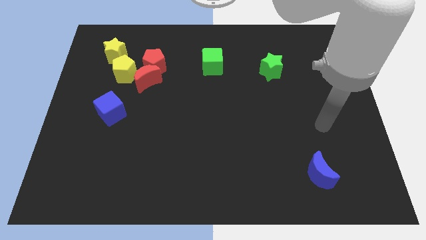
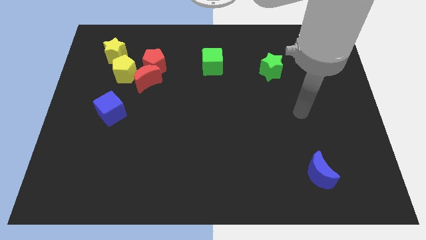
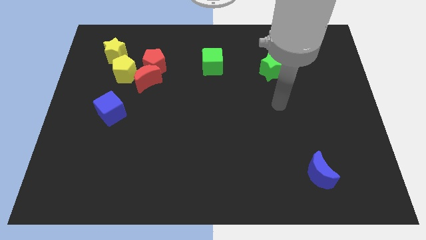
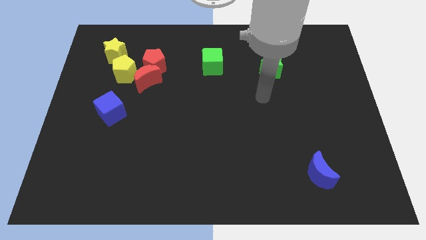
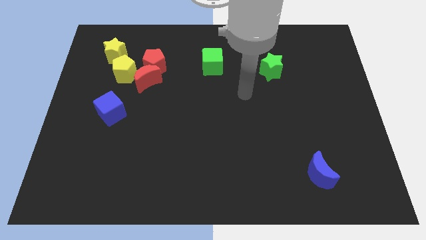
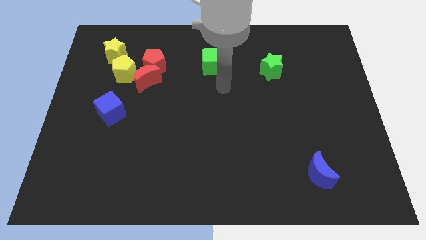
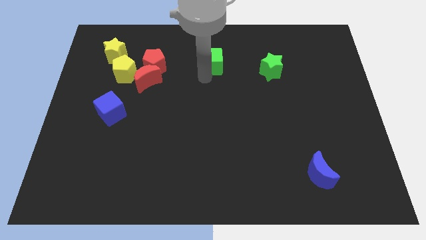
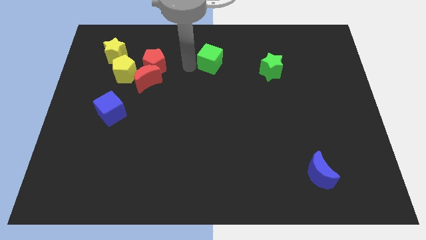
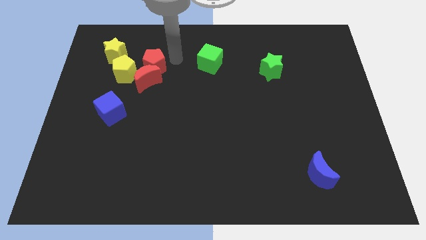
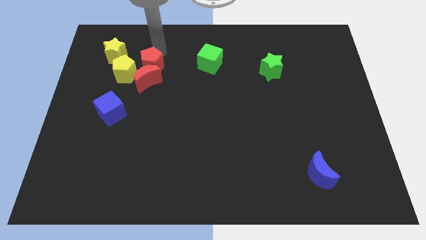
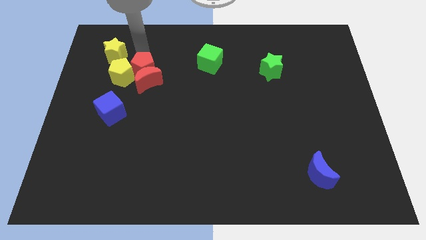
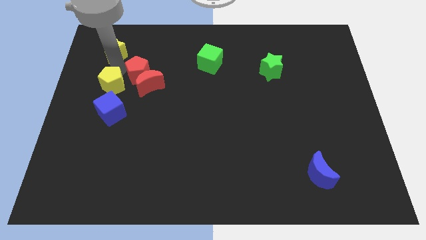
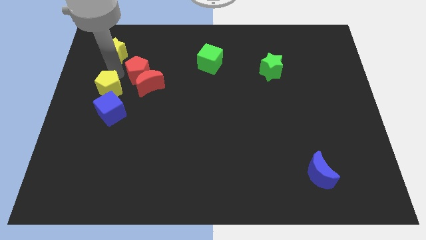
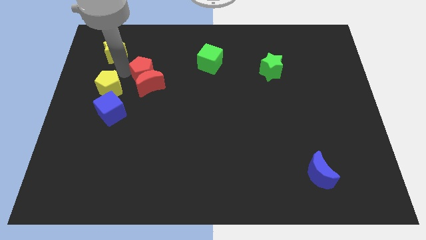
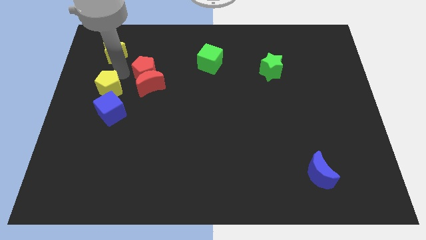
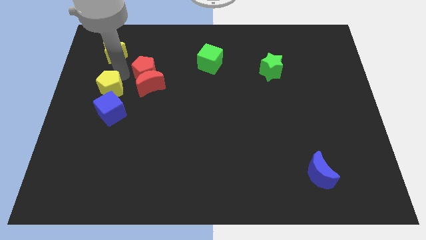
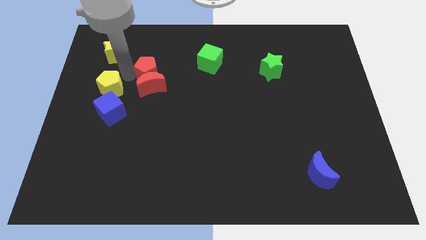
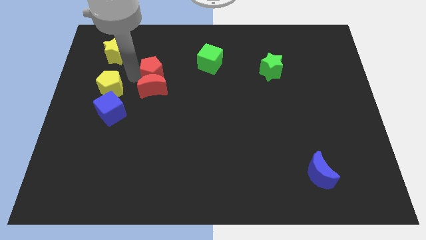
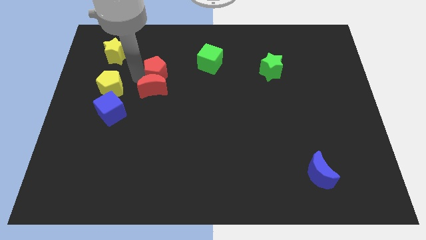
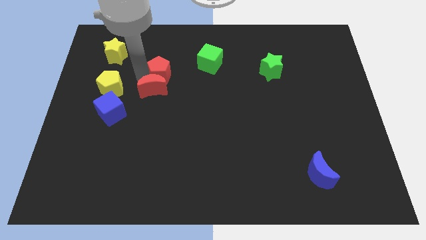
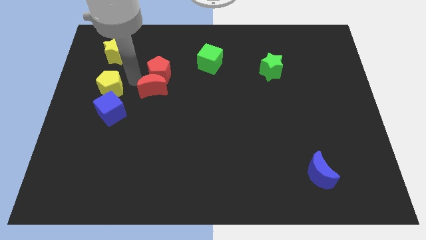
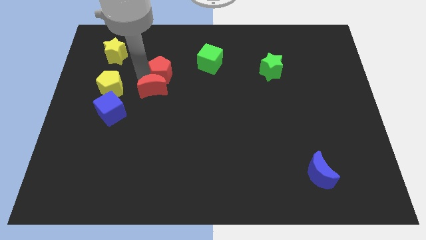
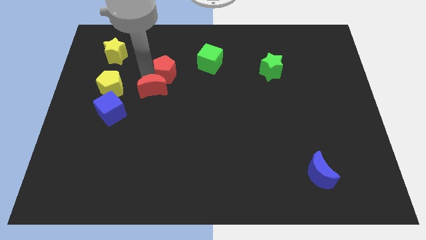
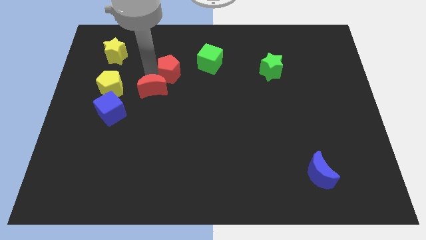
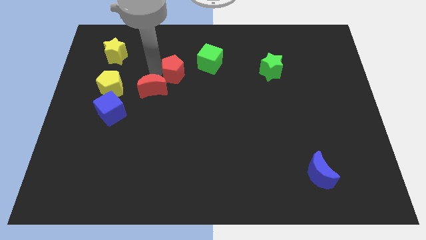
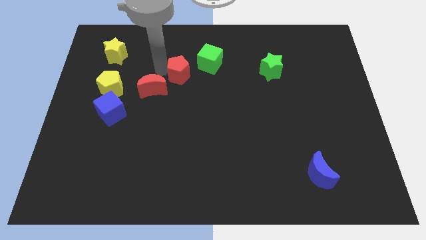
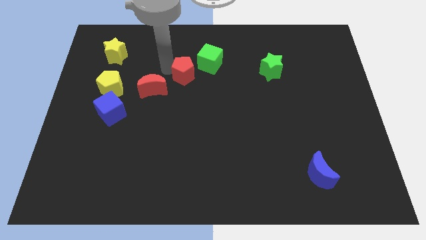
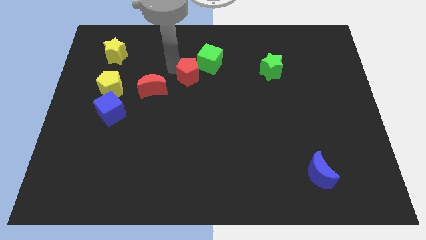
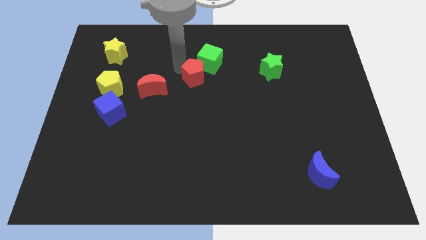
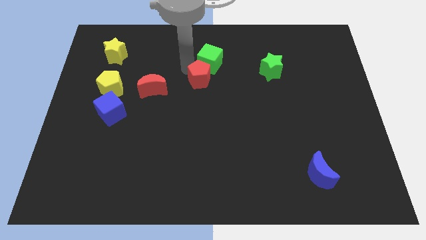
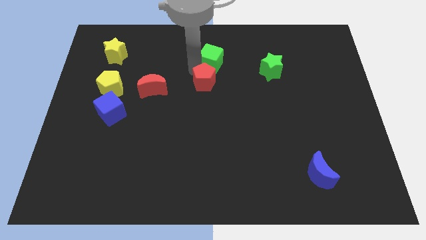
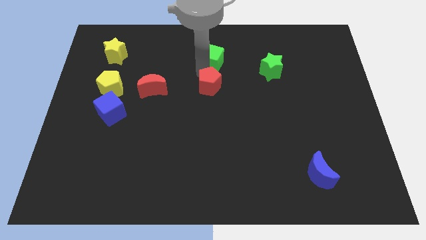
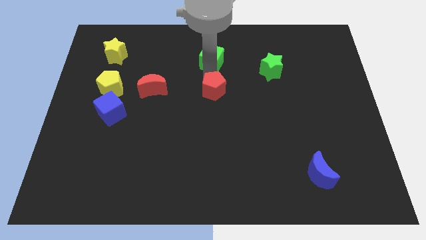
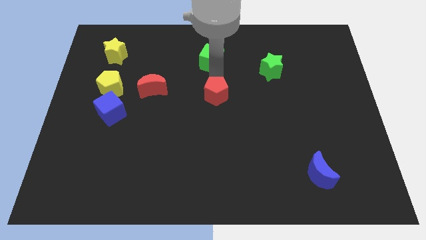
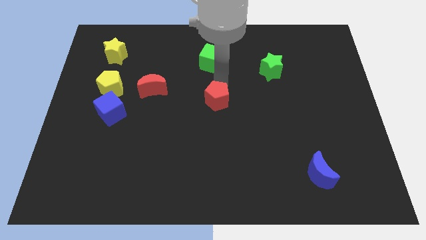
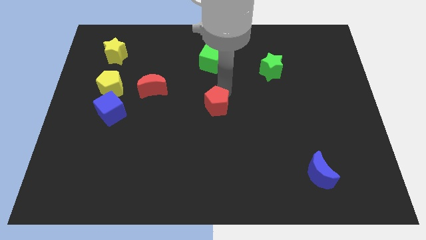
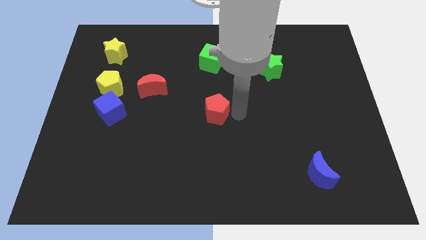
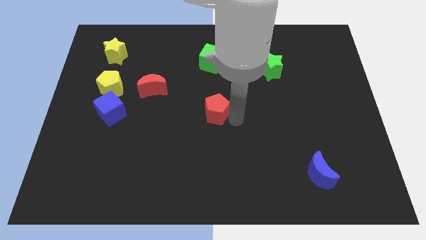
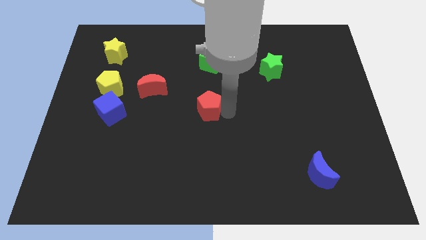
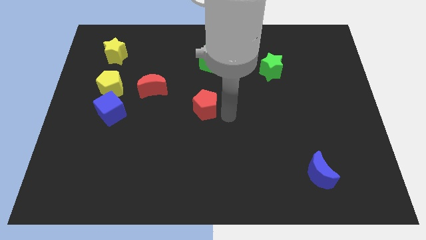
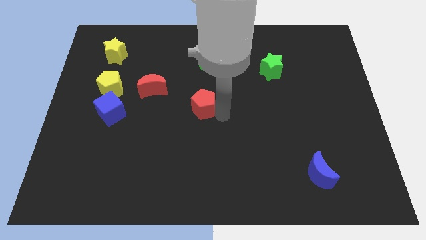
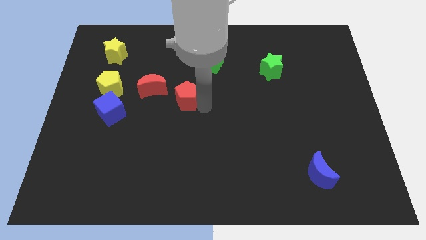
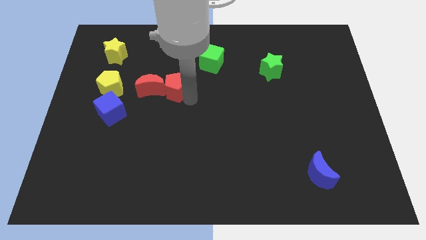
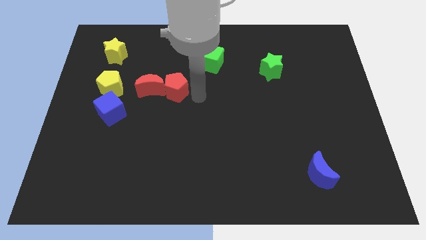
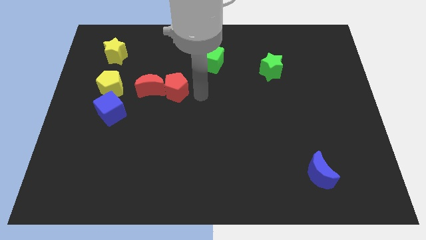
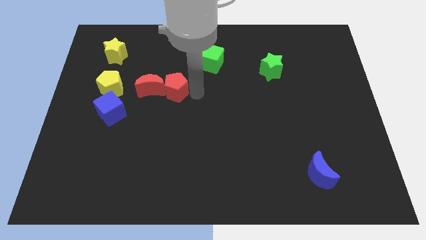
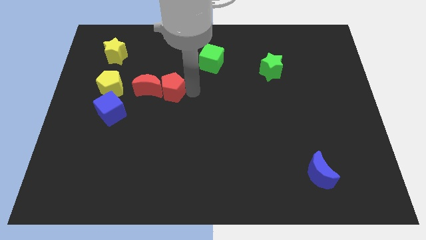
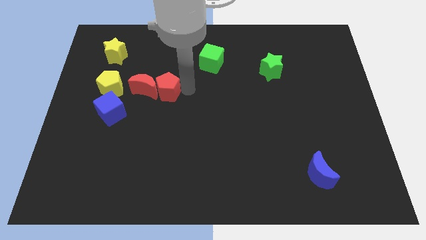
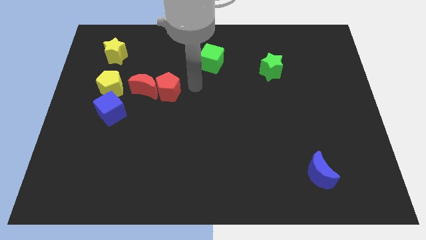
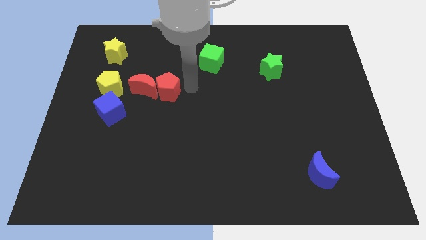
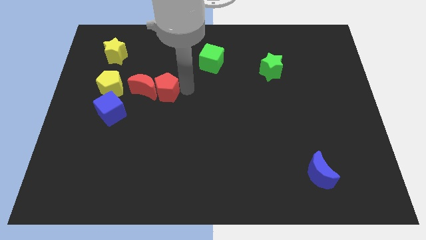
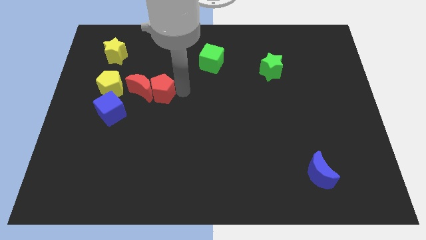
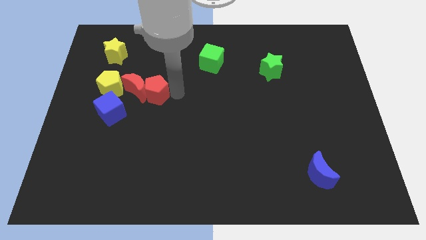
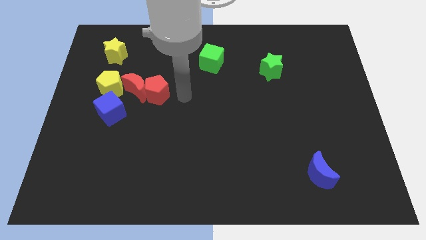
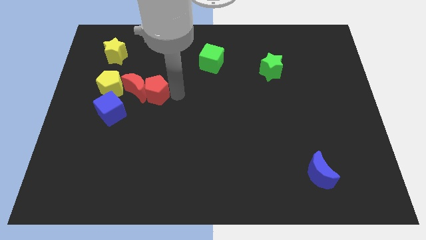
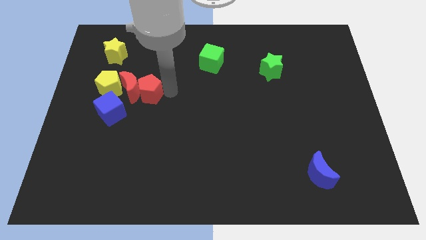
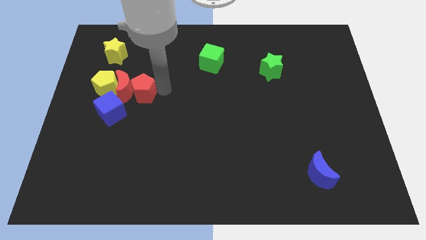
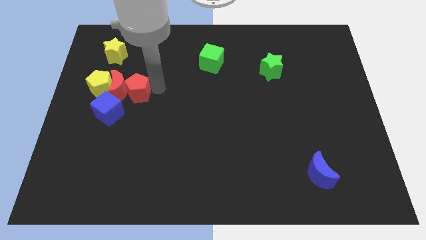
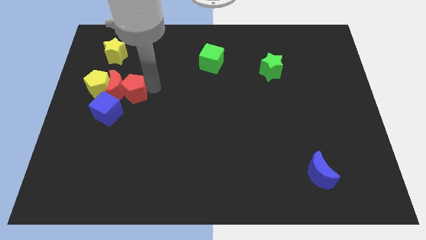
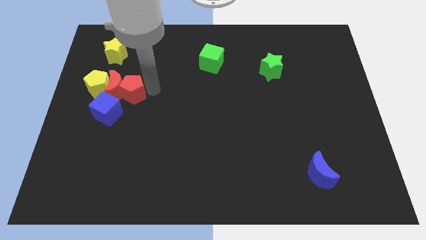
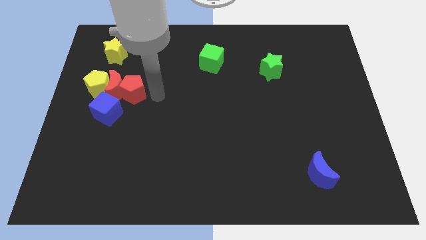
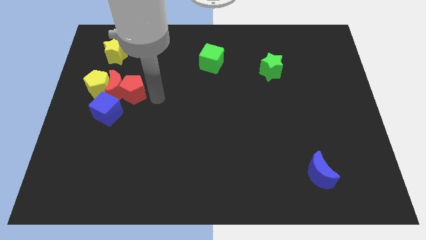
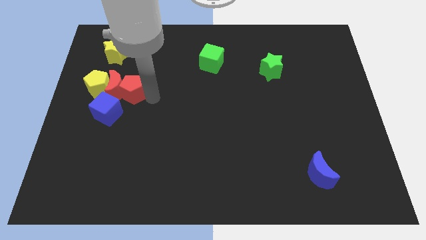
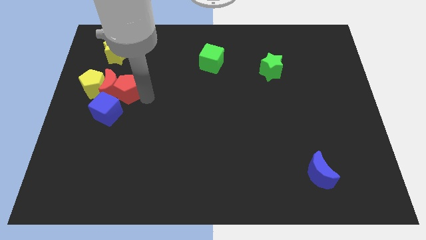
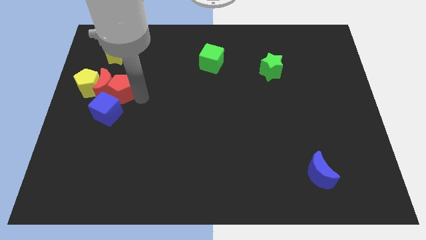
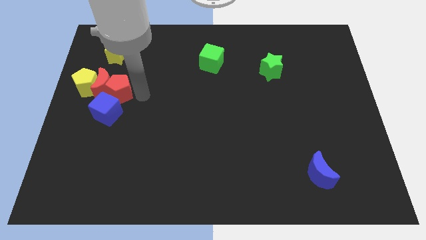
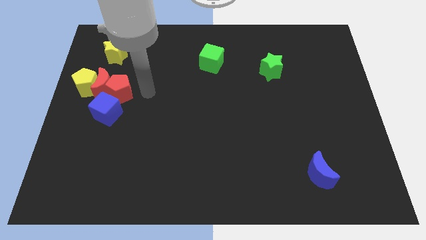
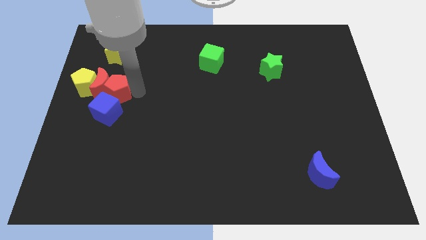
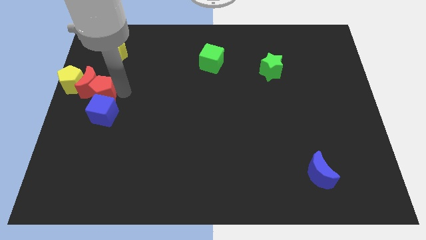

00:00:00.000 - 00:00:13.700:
move the red pentagon to the center left
